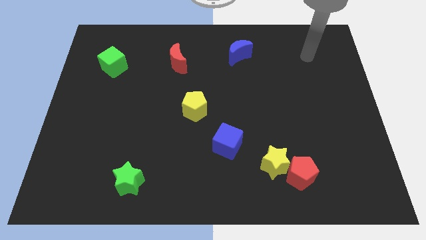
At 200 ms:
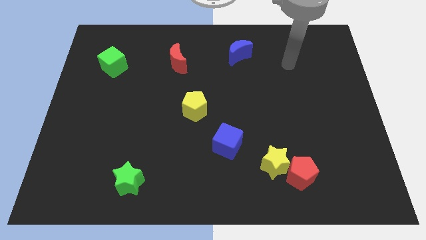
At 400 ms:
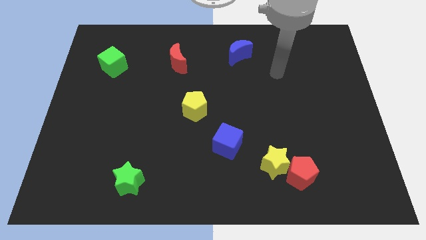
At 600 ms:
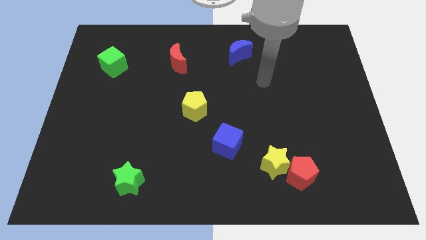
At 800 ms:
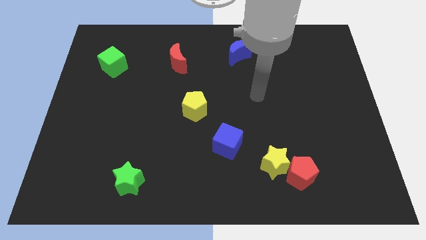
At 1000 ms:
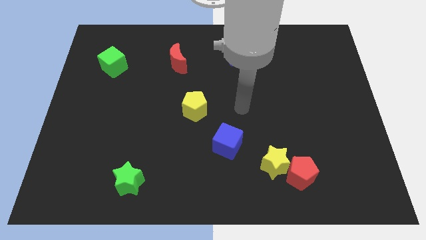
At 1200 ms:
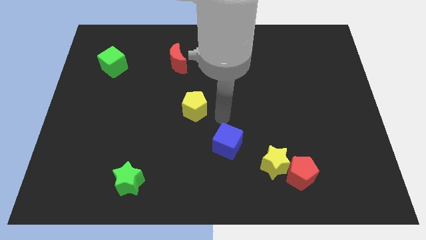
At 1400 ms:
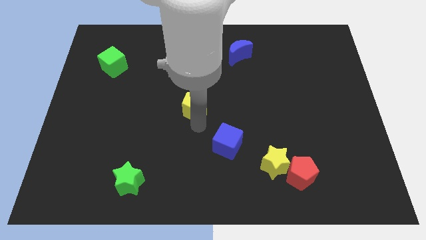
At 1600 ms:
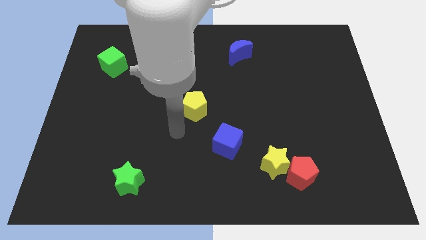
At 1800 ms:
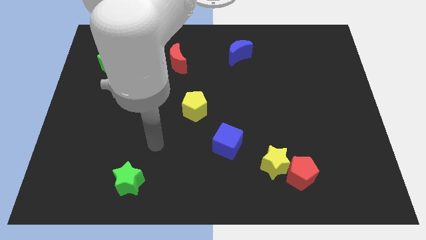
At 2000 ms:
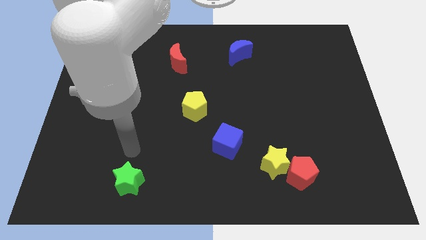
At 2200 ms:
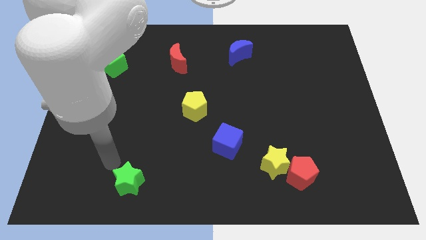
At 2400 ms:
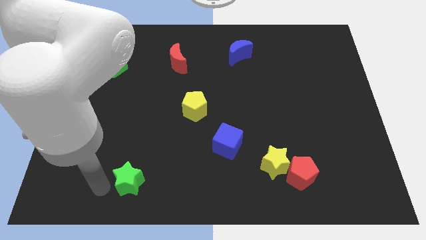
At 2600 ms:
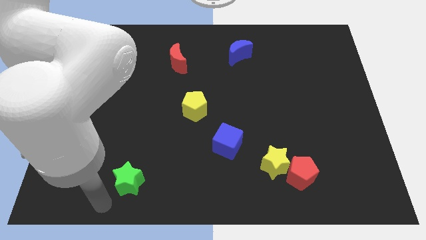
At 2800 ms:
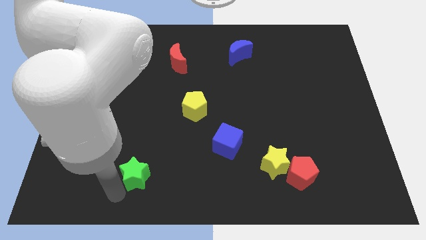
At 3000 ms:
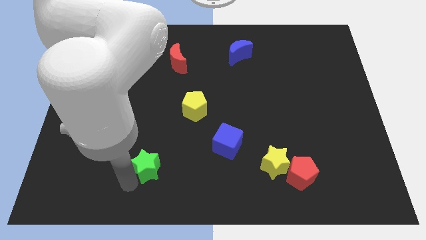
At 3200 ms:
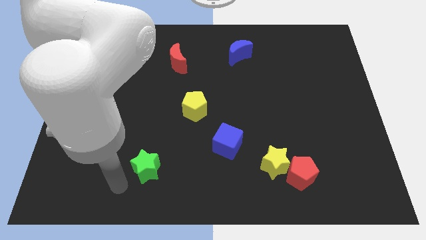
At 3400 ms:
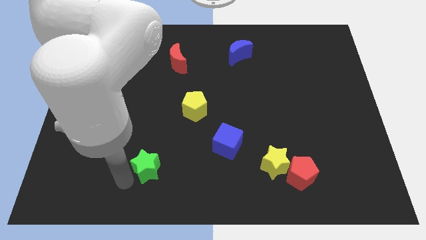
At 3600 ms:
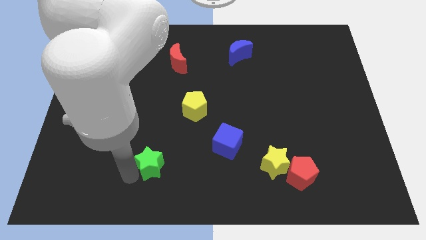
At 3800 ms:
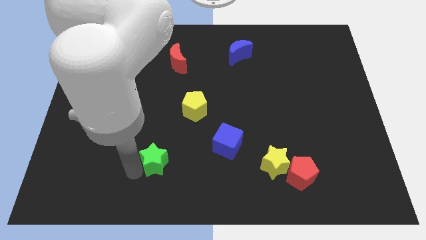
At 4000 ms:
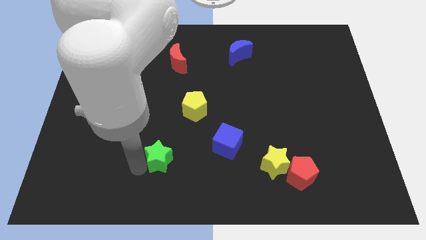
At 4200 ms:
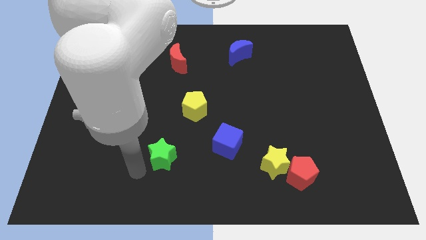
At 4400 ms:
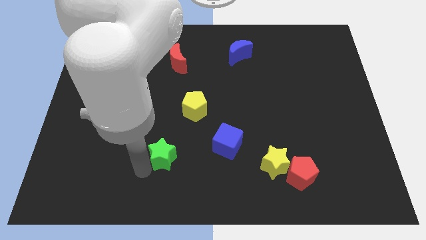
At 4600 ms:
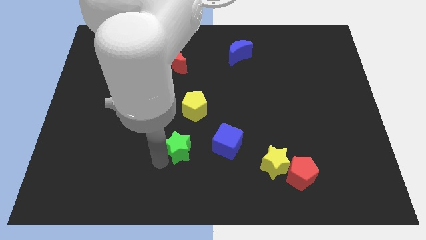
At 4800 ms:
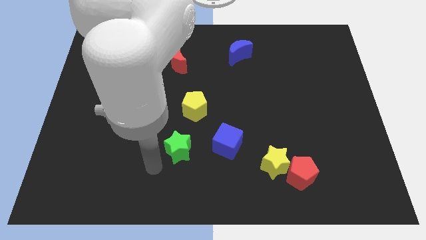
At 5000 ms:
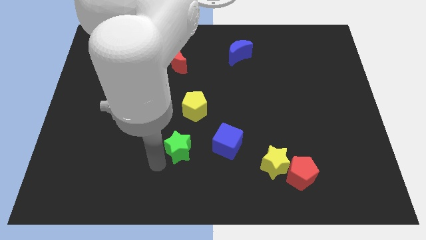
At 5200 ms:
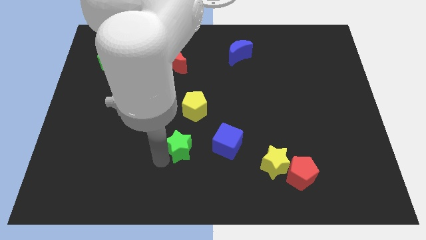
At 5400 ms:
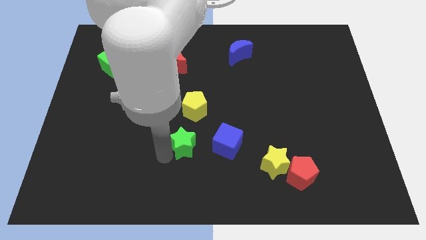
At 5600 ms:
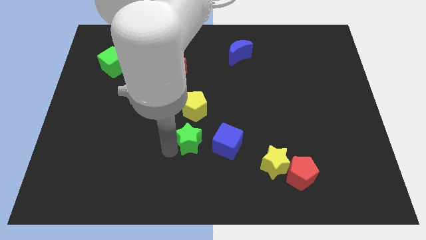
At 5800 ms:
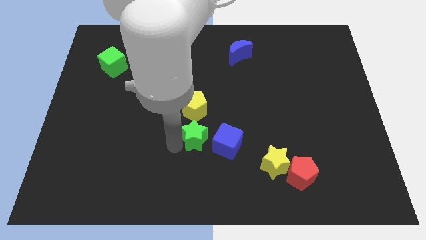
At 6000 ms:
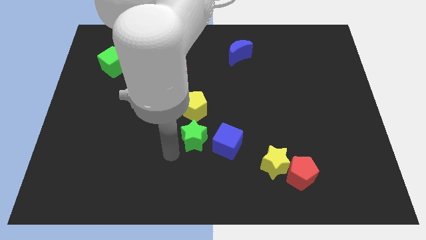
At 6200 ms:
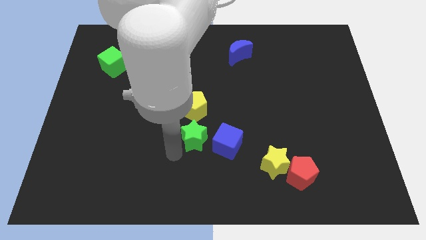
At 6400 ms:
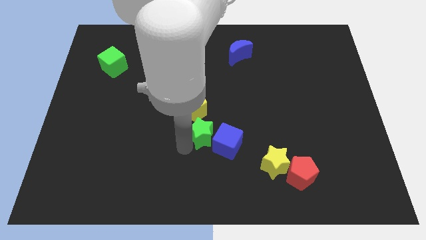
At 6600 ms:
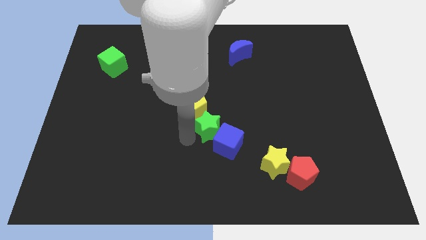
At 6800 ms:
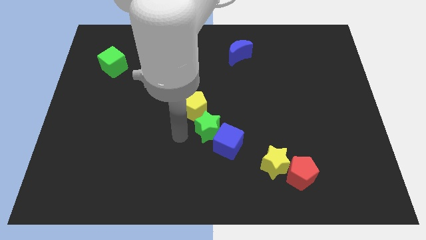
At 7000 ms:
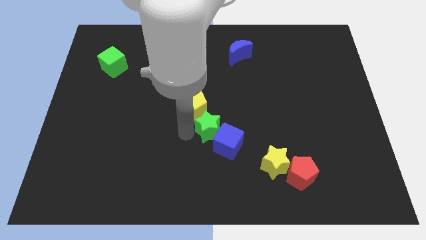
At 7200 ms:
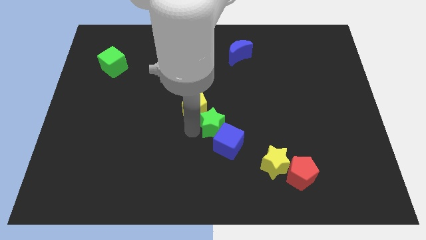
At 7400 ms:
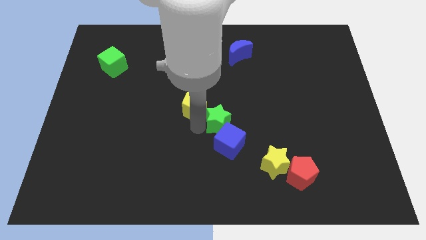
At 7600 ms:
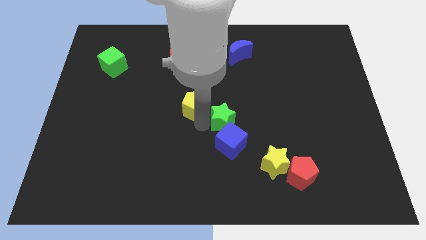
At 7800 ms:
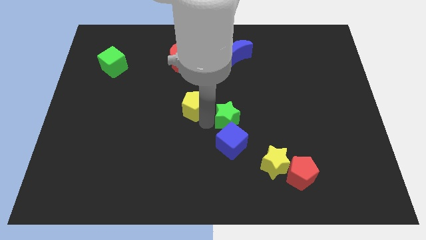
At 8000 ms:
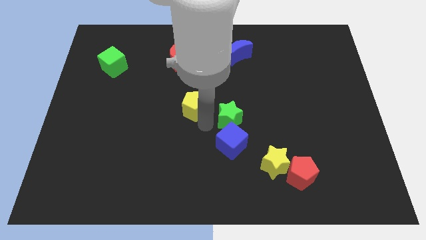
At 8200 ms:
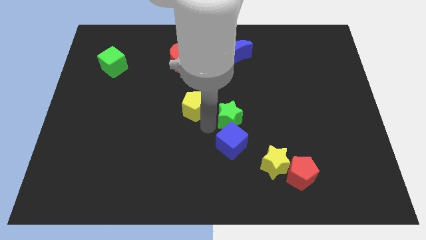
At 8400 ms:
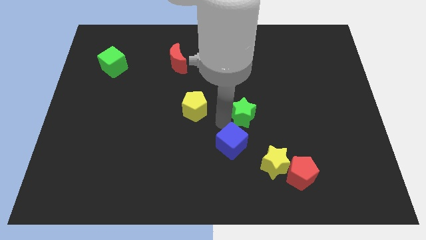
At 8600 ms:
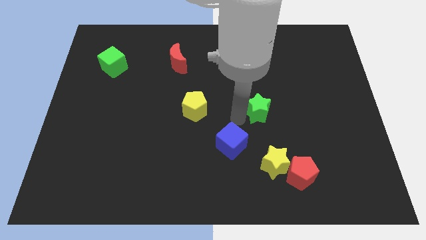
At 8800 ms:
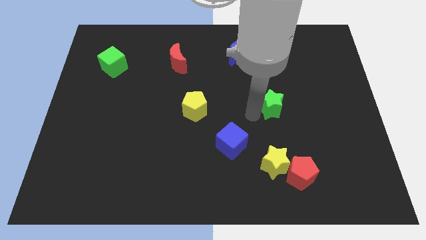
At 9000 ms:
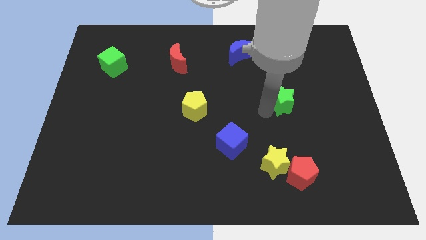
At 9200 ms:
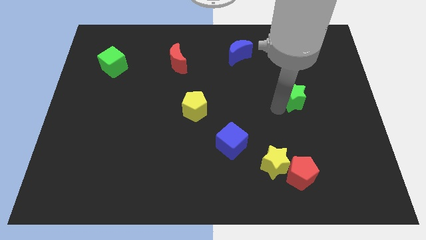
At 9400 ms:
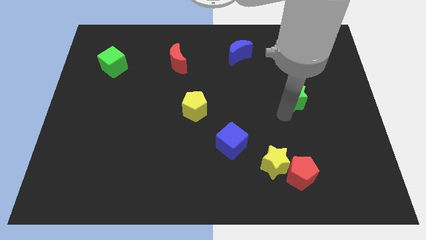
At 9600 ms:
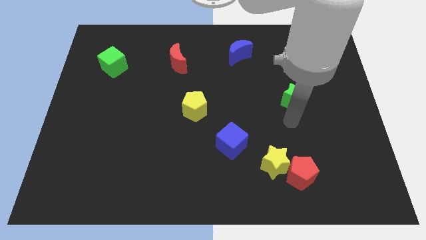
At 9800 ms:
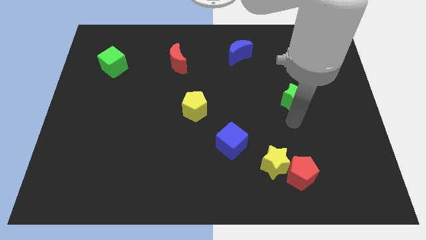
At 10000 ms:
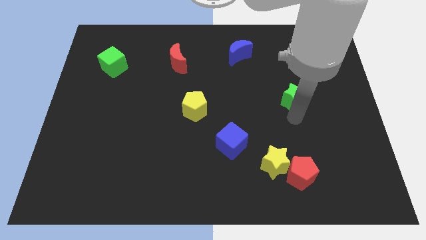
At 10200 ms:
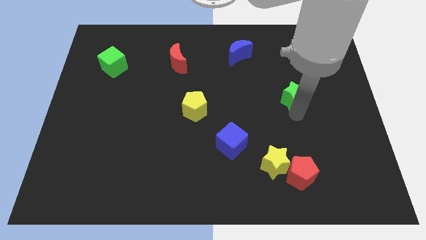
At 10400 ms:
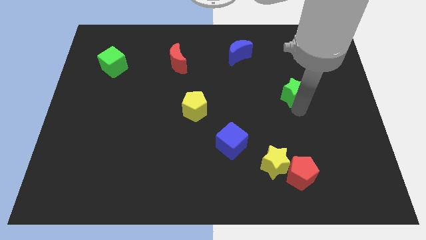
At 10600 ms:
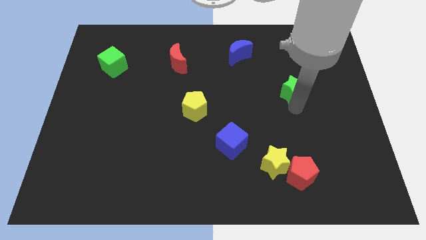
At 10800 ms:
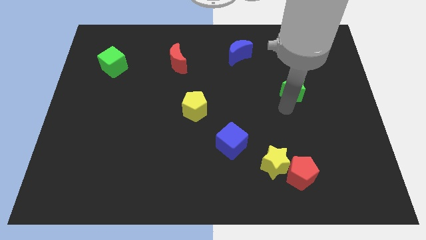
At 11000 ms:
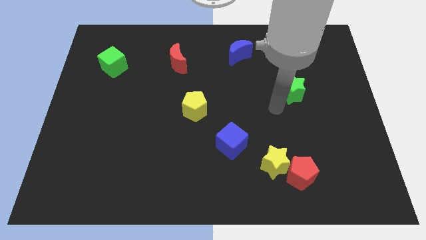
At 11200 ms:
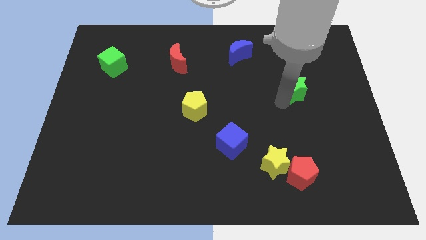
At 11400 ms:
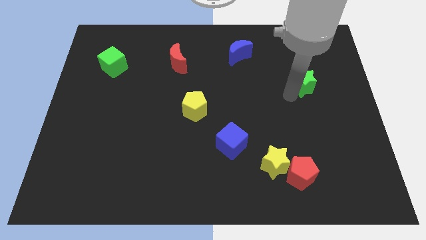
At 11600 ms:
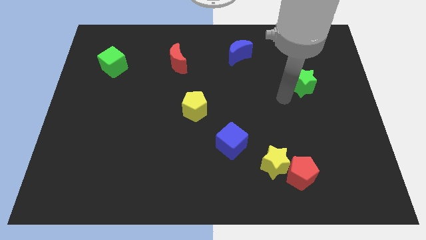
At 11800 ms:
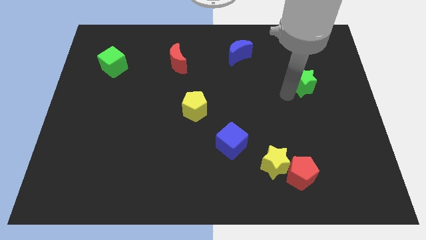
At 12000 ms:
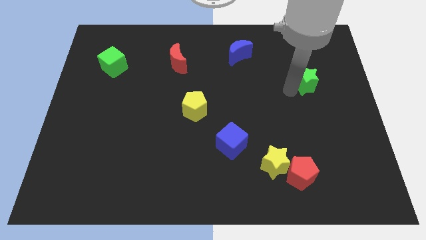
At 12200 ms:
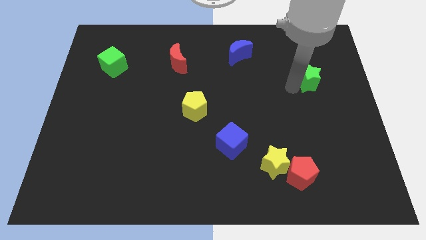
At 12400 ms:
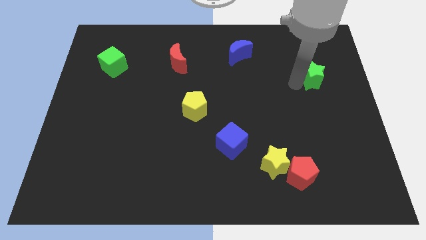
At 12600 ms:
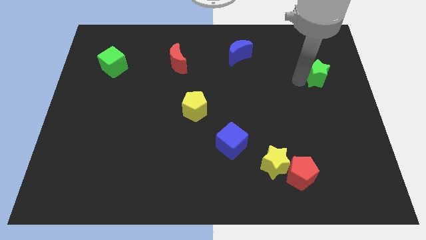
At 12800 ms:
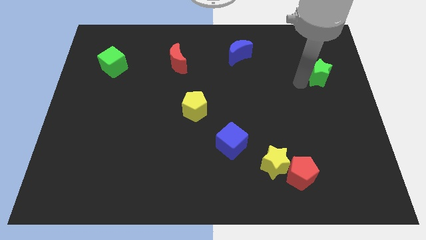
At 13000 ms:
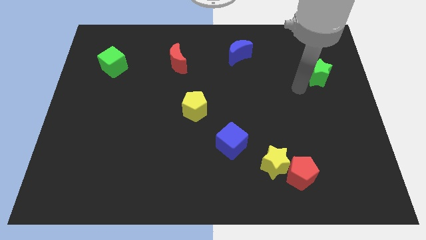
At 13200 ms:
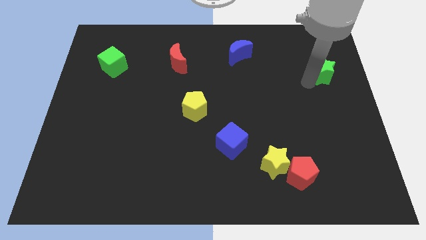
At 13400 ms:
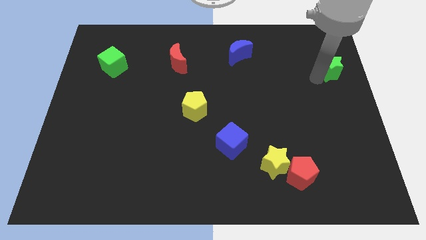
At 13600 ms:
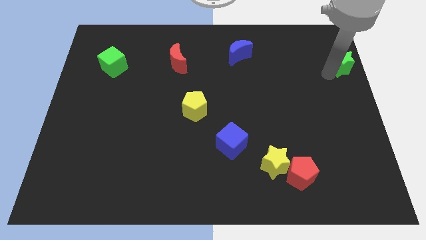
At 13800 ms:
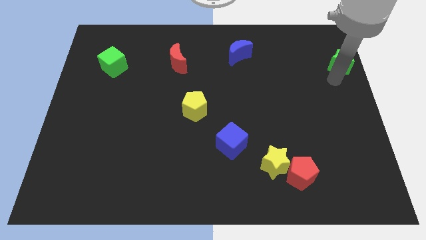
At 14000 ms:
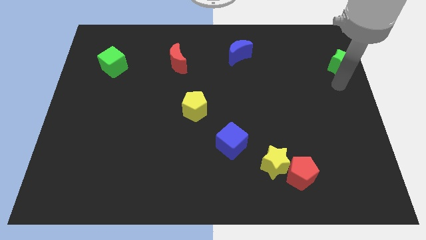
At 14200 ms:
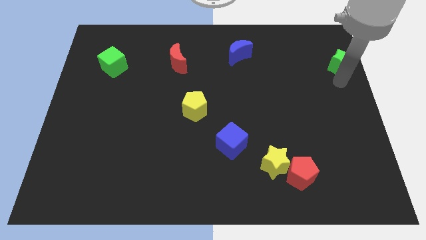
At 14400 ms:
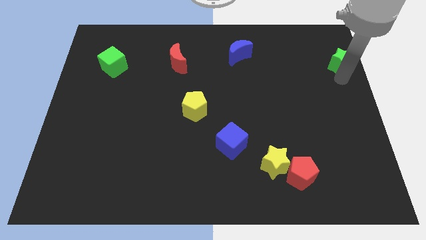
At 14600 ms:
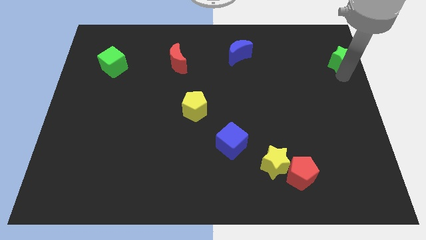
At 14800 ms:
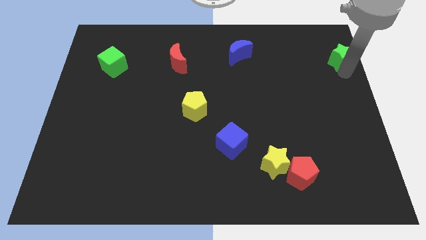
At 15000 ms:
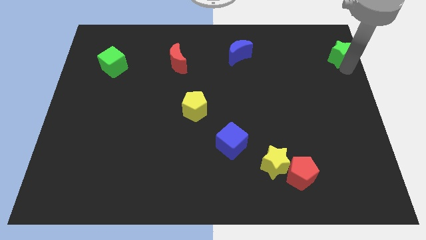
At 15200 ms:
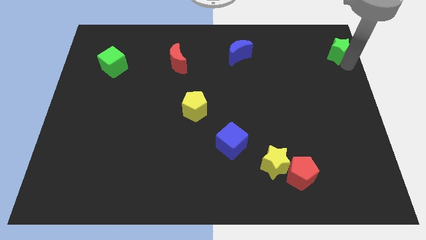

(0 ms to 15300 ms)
put the green star to the top right
